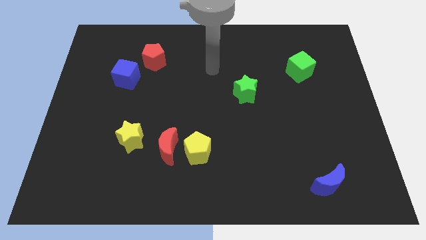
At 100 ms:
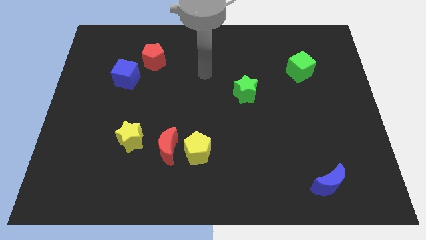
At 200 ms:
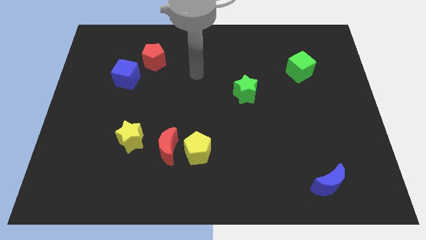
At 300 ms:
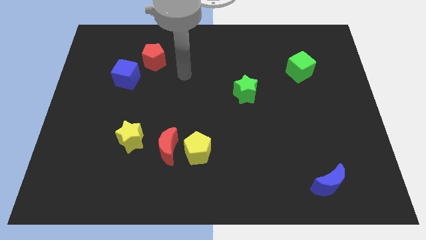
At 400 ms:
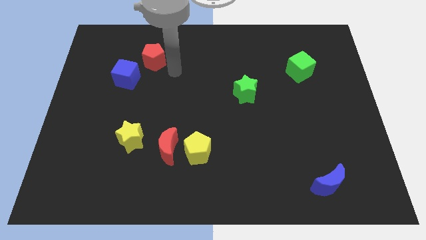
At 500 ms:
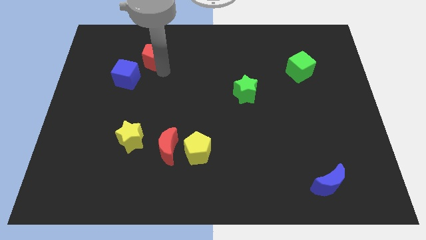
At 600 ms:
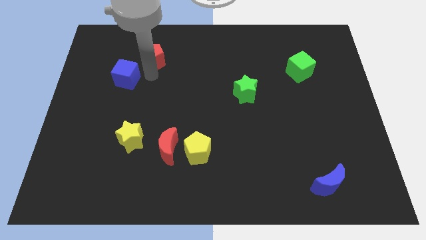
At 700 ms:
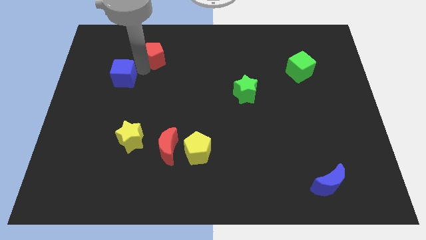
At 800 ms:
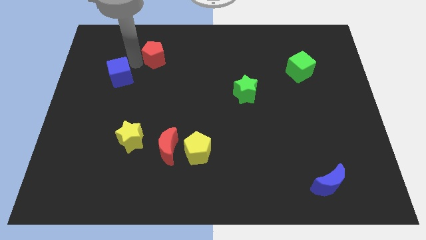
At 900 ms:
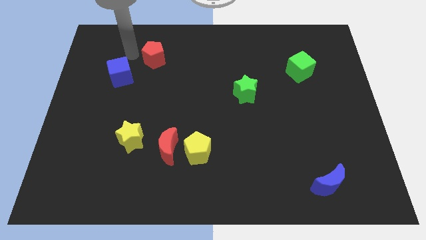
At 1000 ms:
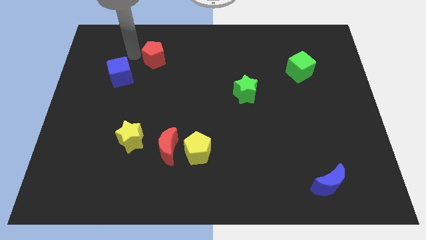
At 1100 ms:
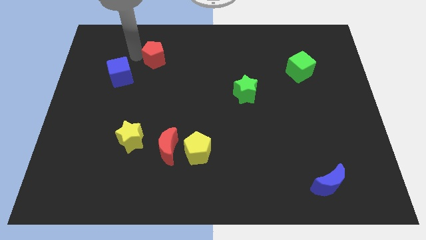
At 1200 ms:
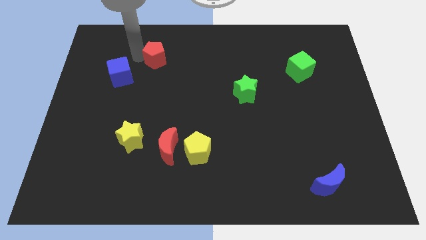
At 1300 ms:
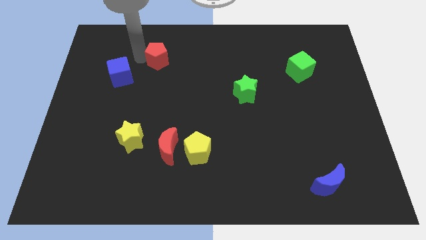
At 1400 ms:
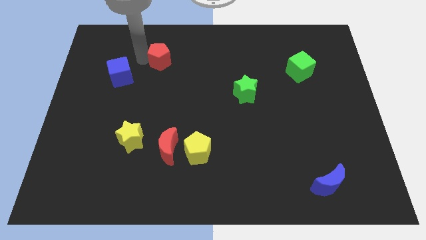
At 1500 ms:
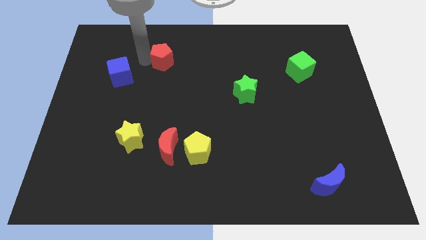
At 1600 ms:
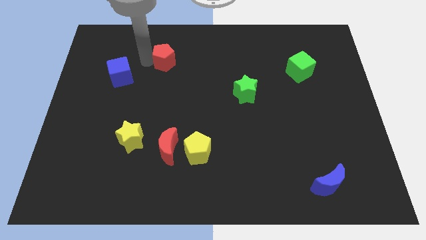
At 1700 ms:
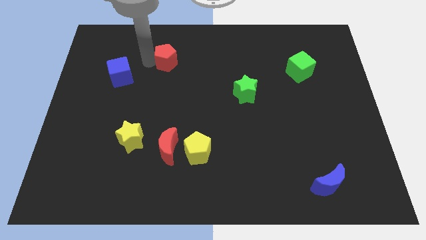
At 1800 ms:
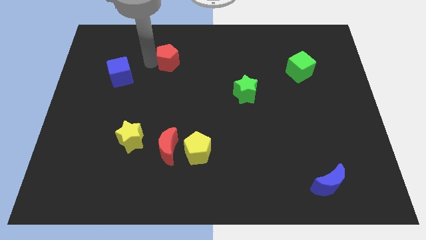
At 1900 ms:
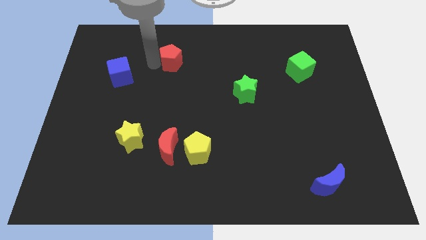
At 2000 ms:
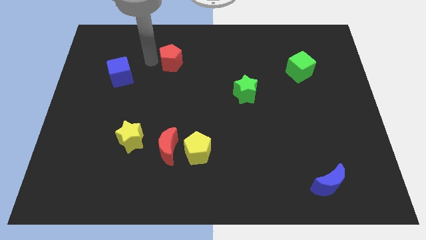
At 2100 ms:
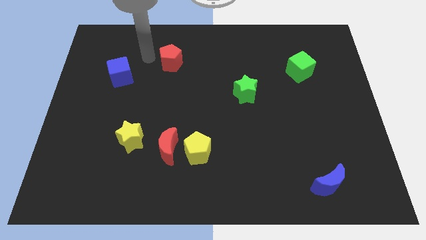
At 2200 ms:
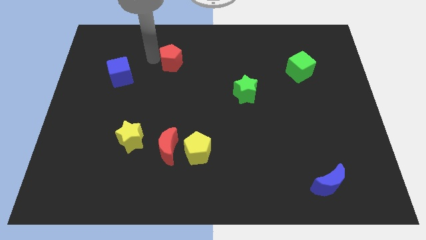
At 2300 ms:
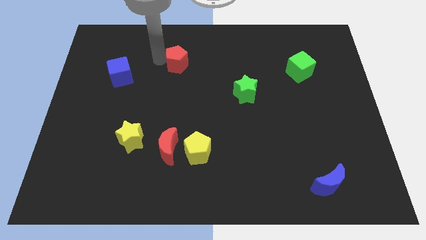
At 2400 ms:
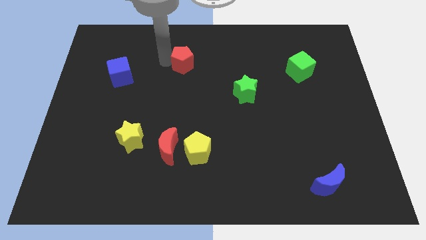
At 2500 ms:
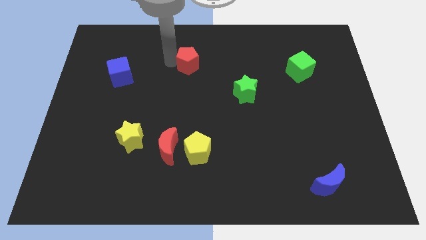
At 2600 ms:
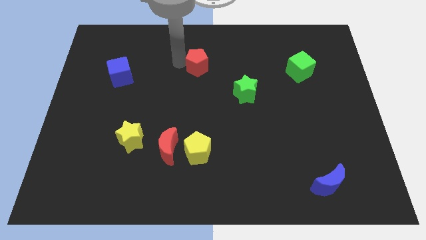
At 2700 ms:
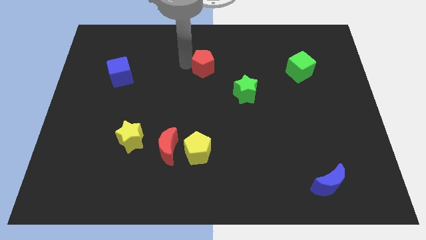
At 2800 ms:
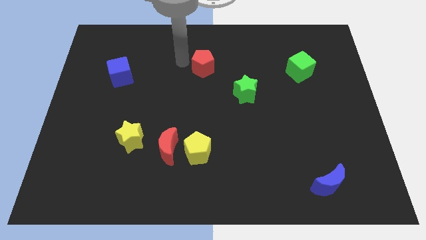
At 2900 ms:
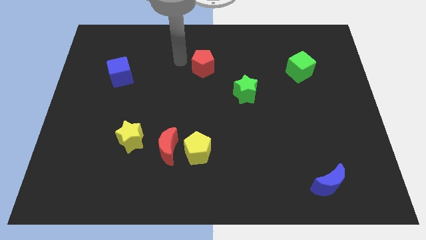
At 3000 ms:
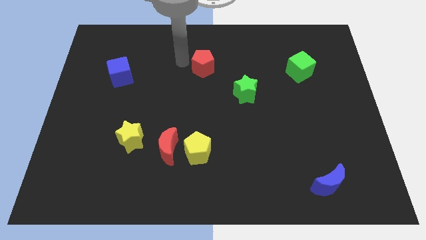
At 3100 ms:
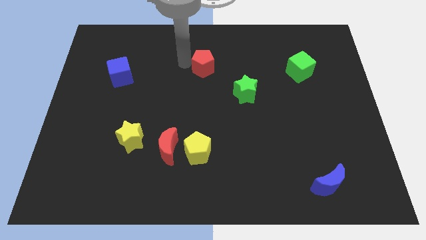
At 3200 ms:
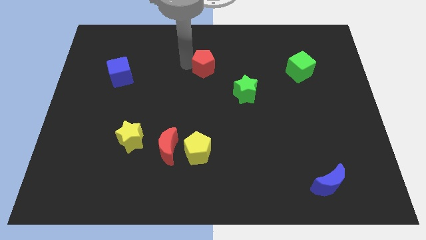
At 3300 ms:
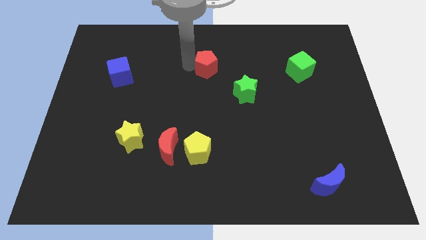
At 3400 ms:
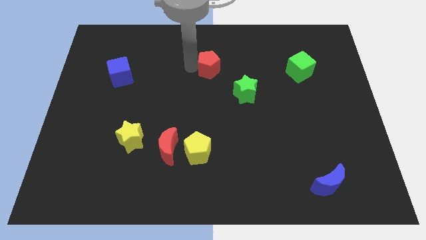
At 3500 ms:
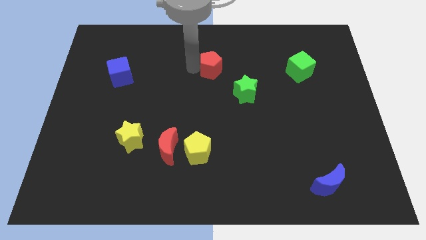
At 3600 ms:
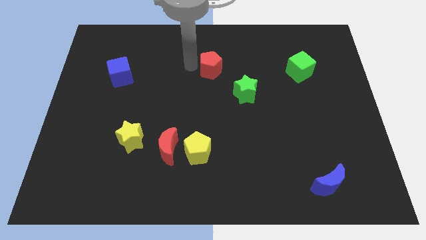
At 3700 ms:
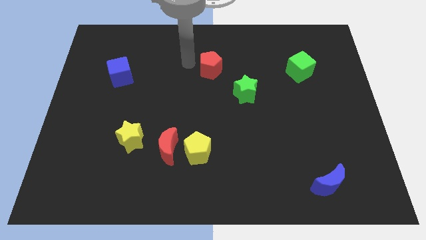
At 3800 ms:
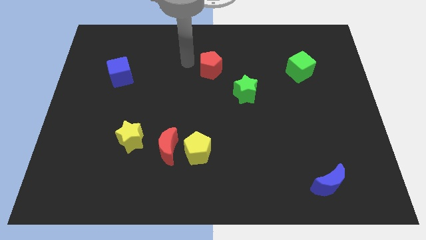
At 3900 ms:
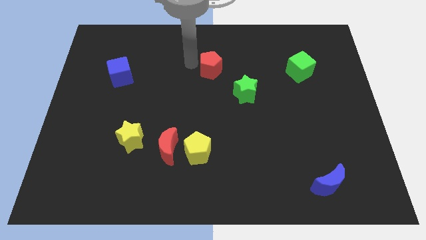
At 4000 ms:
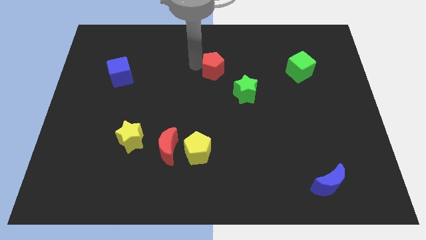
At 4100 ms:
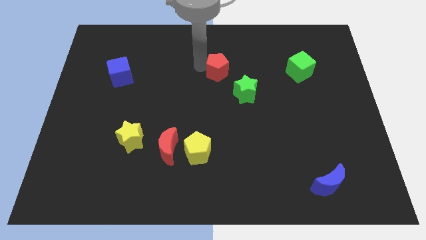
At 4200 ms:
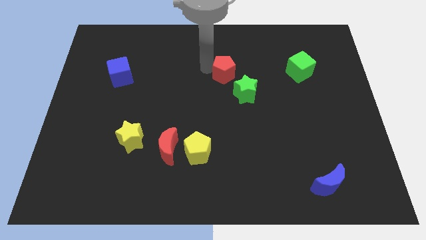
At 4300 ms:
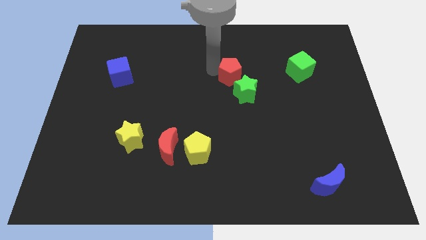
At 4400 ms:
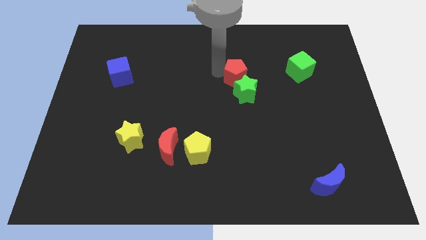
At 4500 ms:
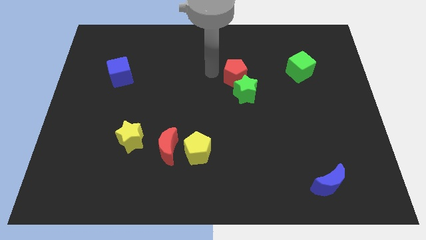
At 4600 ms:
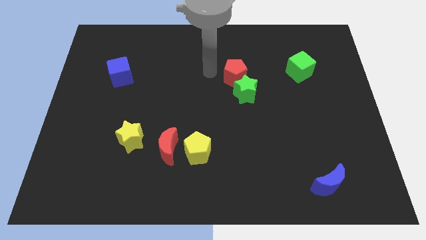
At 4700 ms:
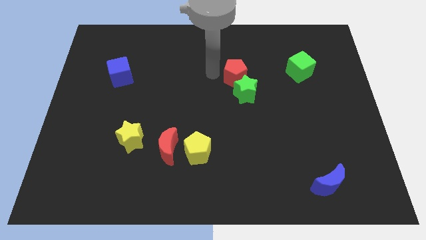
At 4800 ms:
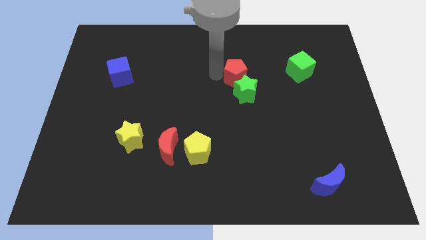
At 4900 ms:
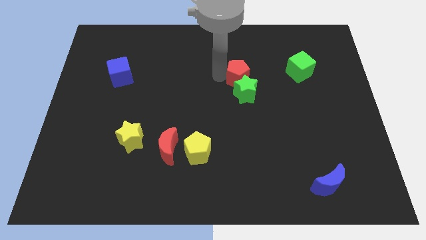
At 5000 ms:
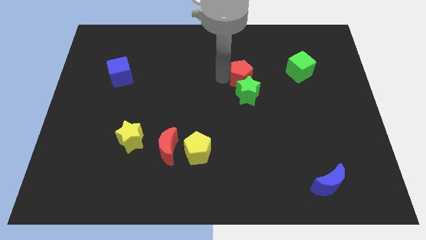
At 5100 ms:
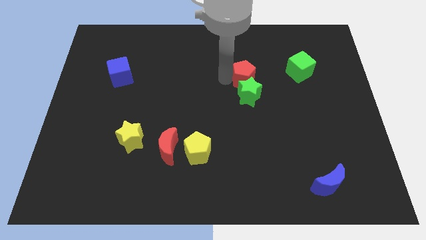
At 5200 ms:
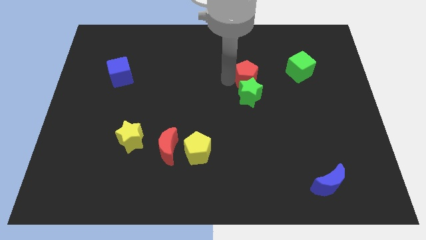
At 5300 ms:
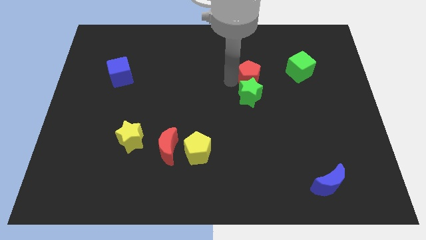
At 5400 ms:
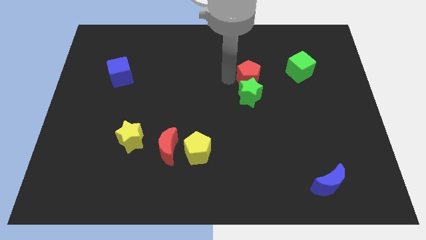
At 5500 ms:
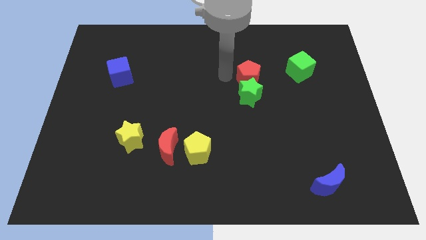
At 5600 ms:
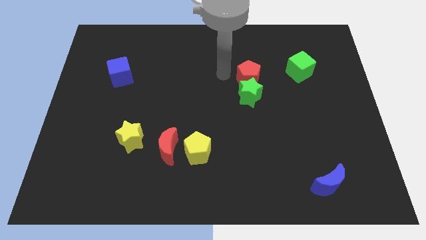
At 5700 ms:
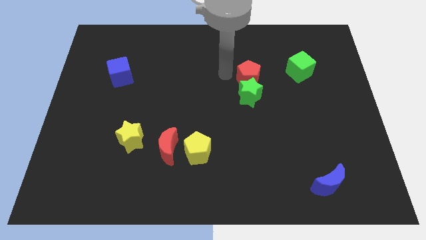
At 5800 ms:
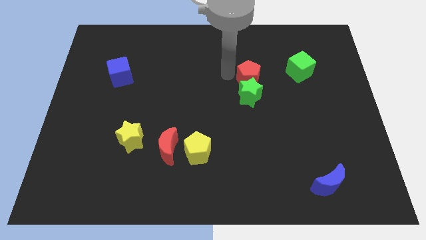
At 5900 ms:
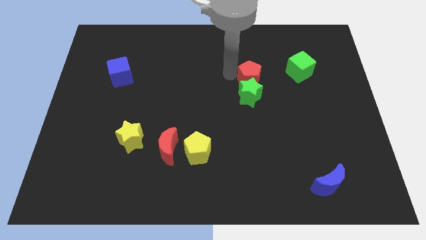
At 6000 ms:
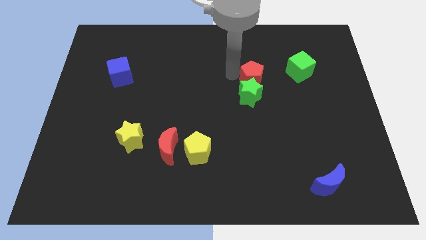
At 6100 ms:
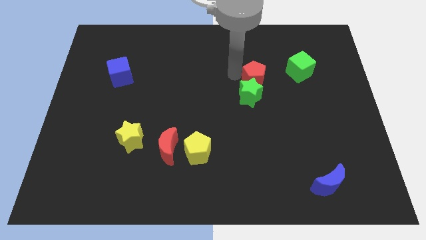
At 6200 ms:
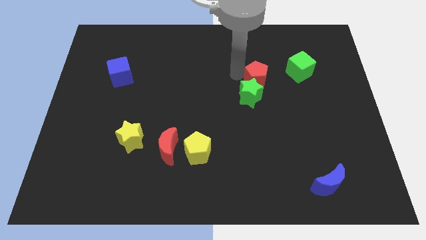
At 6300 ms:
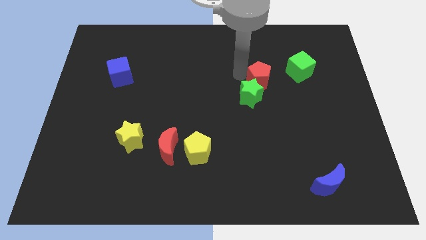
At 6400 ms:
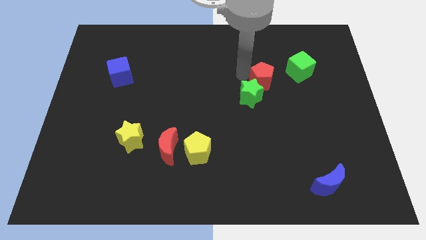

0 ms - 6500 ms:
slide the red pentagon to the bottom left side of the green cube

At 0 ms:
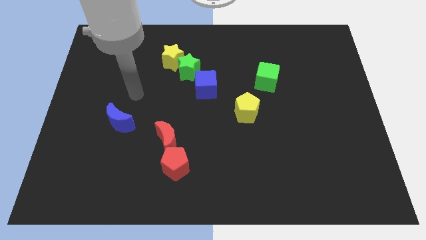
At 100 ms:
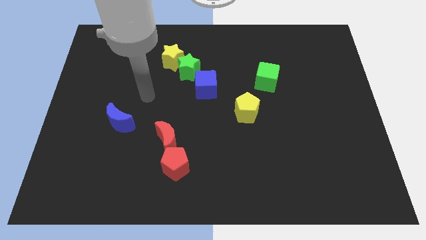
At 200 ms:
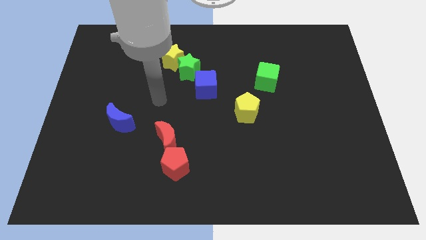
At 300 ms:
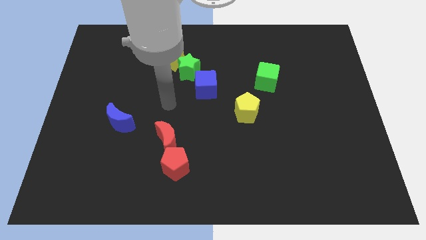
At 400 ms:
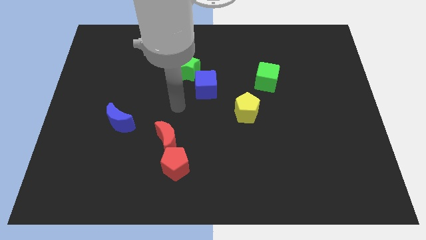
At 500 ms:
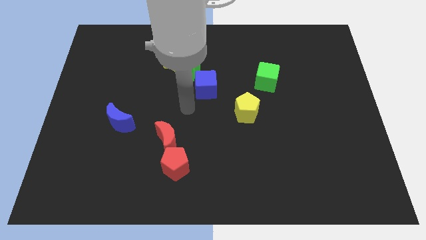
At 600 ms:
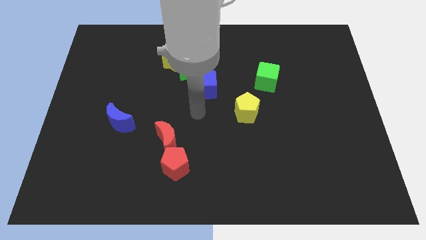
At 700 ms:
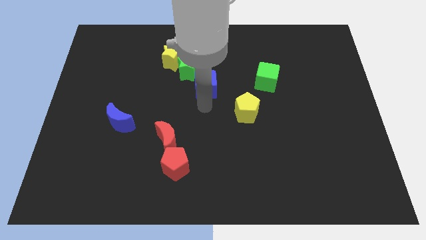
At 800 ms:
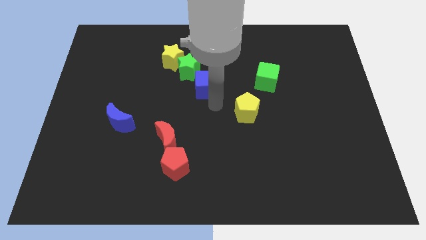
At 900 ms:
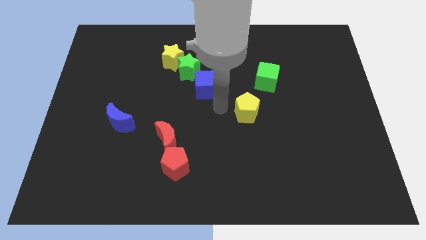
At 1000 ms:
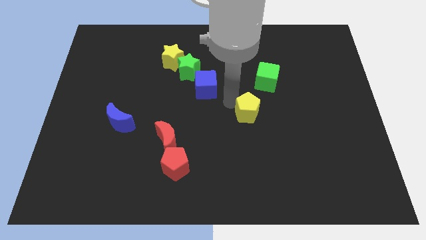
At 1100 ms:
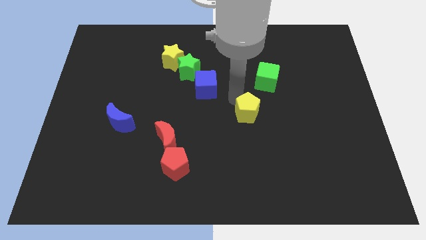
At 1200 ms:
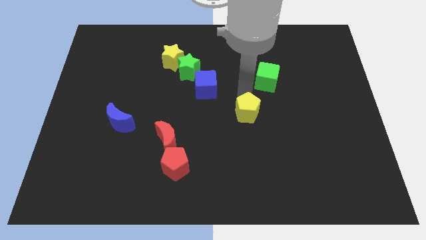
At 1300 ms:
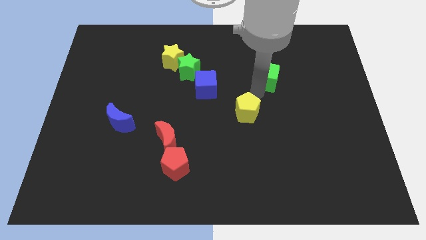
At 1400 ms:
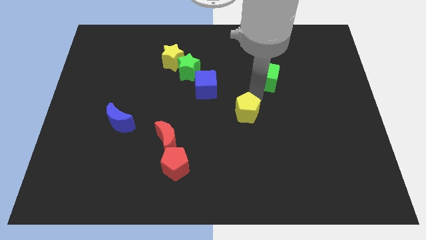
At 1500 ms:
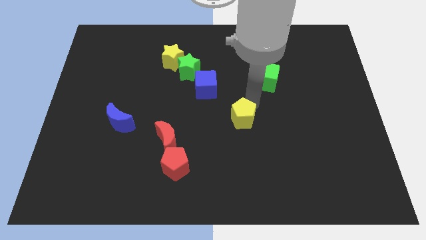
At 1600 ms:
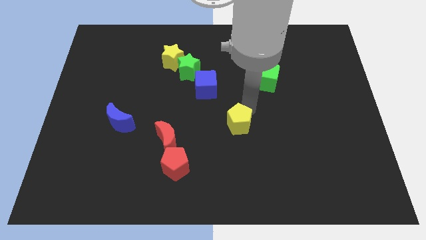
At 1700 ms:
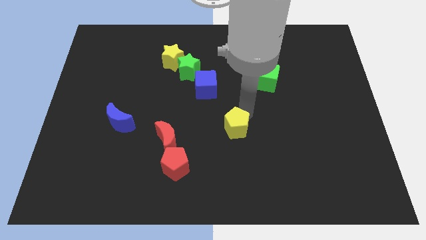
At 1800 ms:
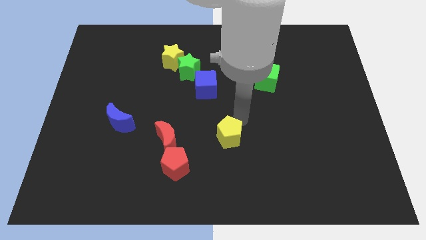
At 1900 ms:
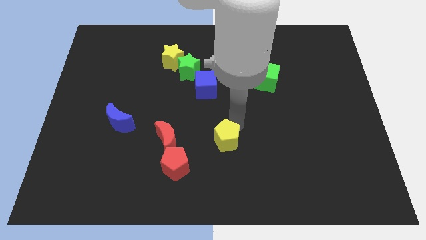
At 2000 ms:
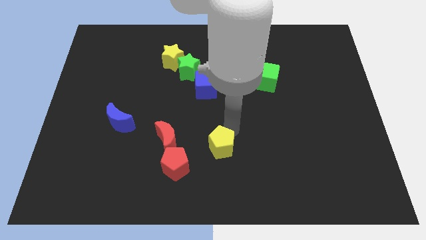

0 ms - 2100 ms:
slide the yellow pentagon to the right of the red pentagon
